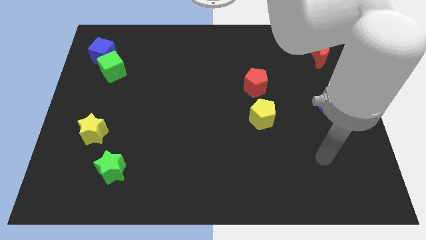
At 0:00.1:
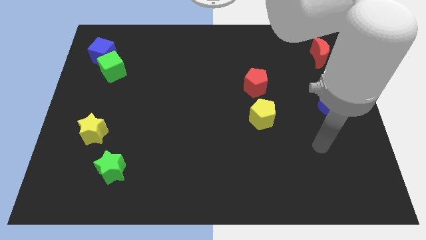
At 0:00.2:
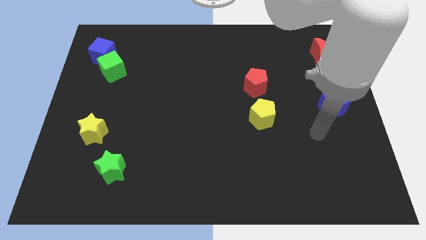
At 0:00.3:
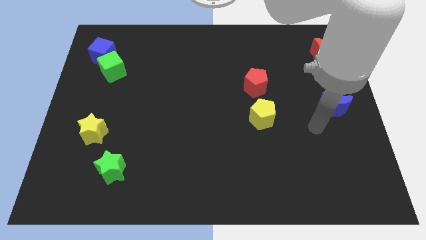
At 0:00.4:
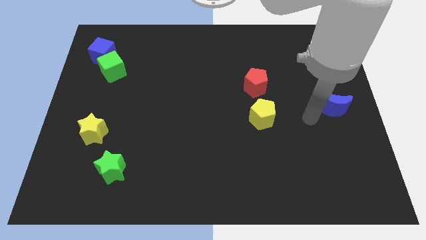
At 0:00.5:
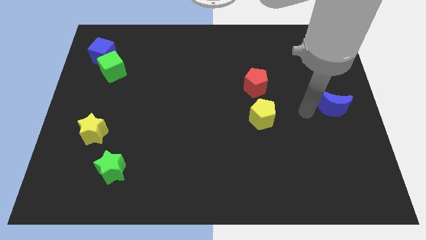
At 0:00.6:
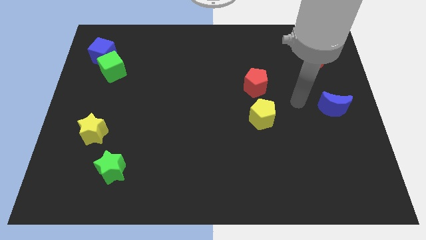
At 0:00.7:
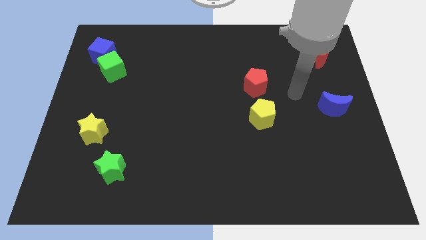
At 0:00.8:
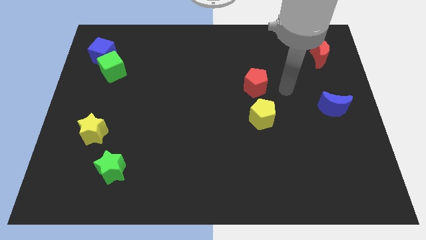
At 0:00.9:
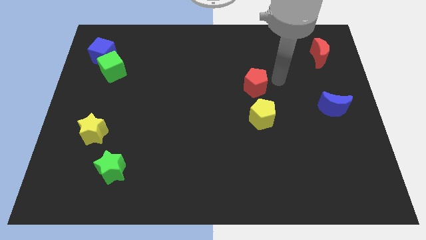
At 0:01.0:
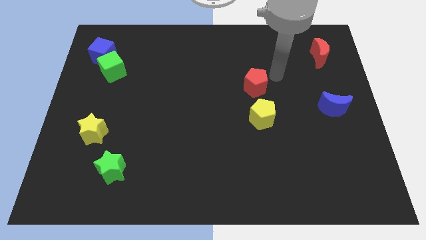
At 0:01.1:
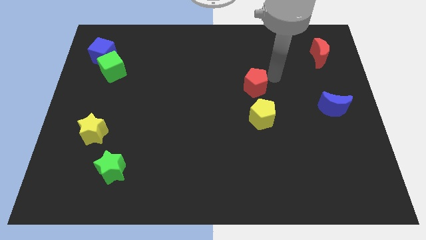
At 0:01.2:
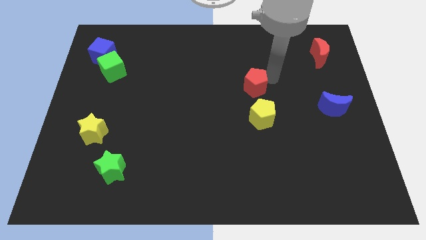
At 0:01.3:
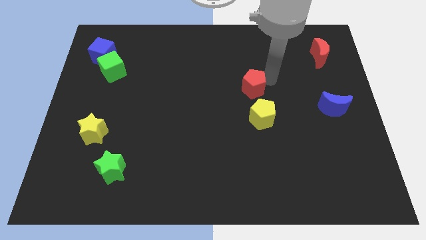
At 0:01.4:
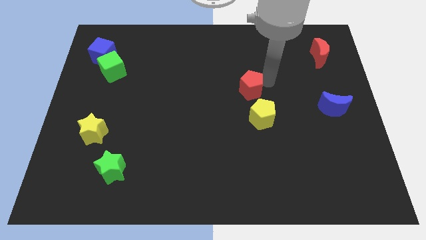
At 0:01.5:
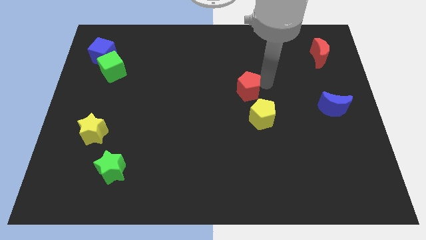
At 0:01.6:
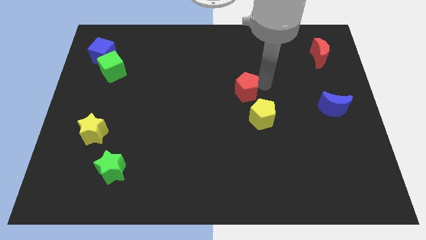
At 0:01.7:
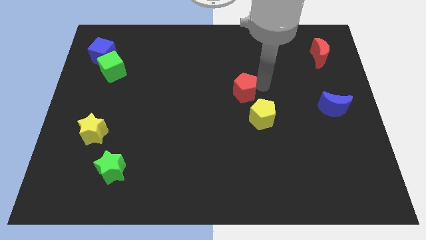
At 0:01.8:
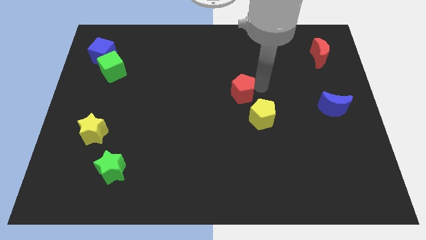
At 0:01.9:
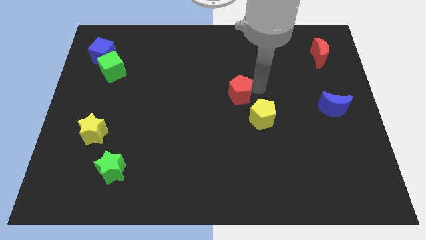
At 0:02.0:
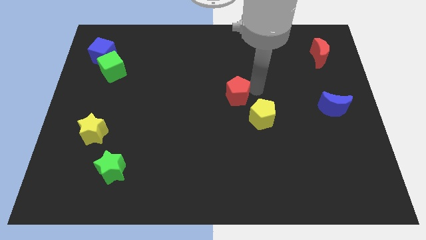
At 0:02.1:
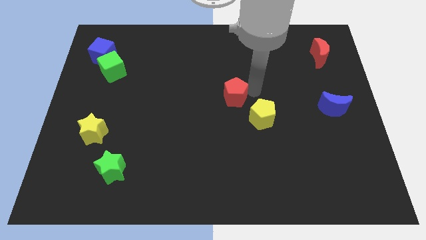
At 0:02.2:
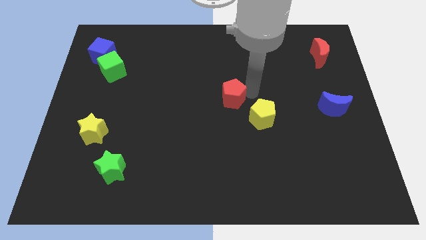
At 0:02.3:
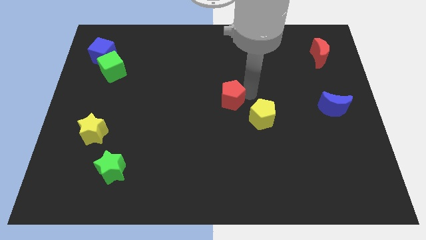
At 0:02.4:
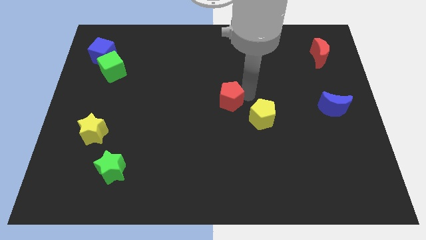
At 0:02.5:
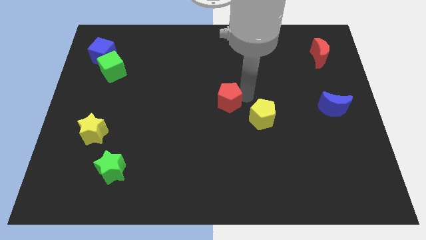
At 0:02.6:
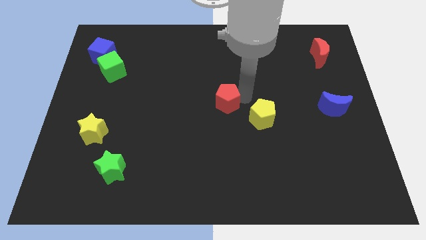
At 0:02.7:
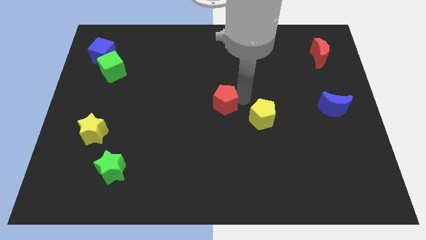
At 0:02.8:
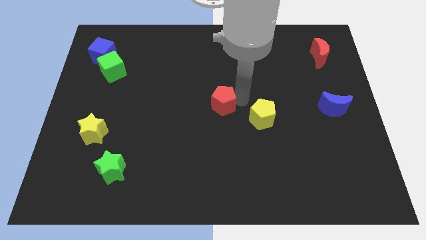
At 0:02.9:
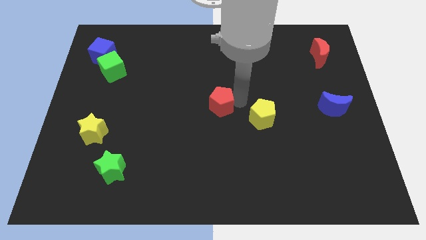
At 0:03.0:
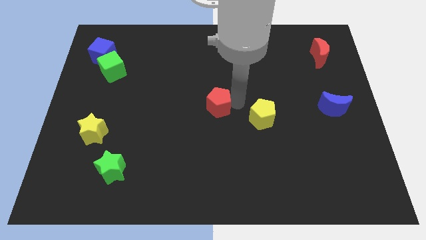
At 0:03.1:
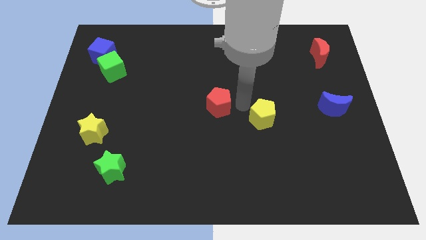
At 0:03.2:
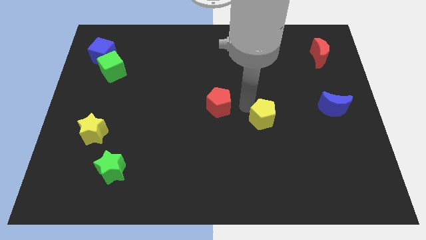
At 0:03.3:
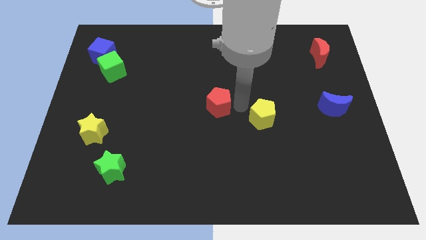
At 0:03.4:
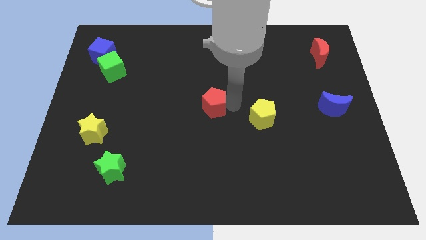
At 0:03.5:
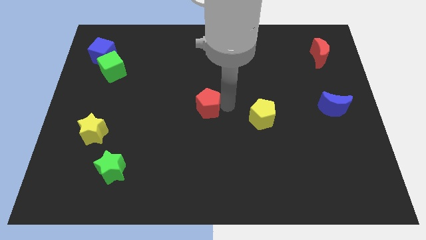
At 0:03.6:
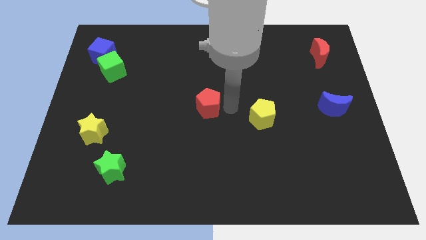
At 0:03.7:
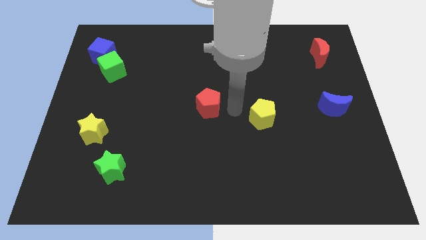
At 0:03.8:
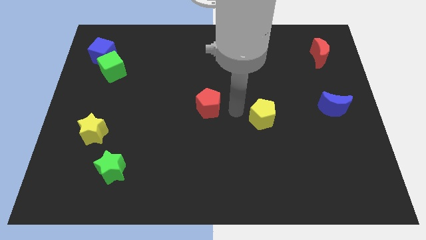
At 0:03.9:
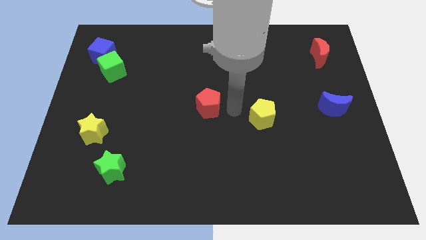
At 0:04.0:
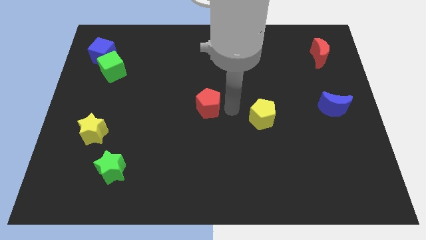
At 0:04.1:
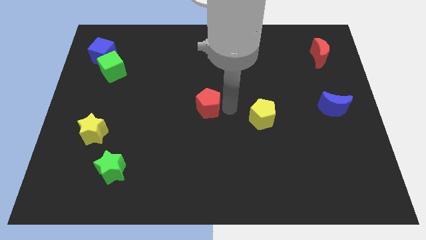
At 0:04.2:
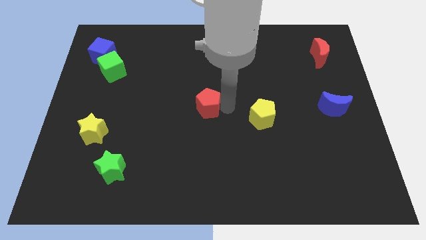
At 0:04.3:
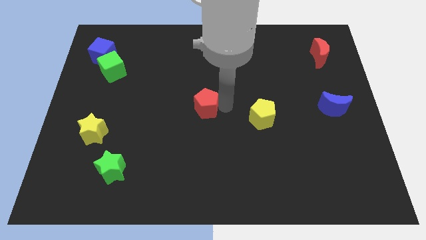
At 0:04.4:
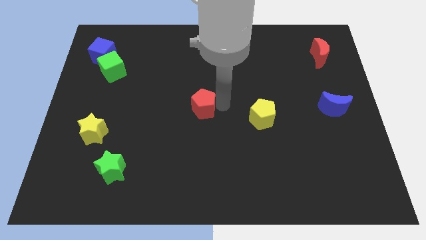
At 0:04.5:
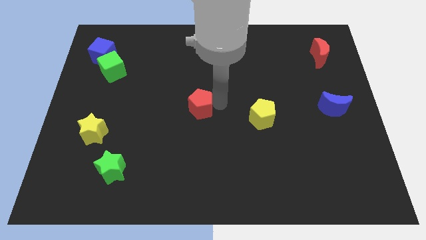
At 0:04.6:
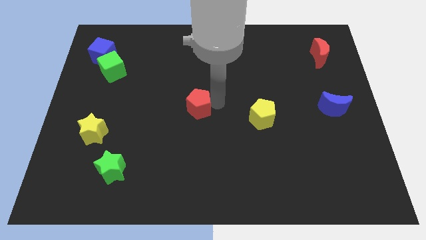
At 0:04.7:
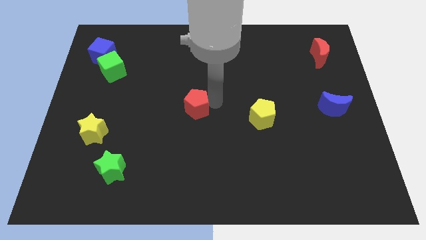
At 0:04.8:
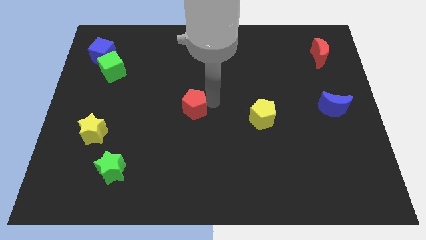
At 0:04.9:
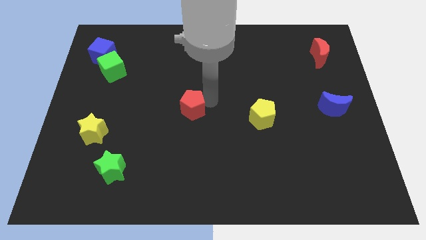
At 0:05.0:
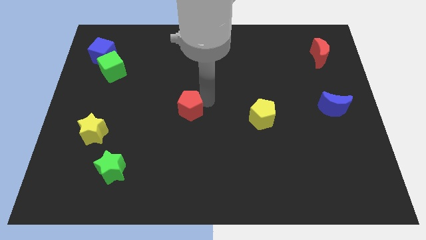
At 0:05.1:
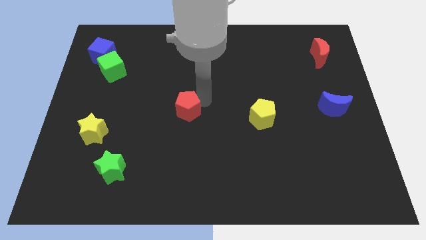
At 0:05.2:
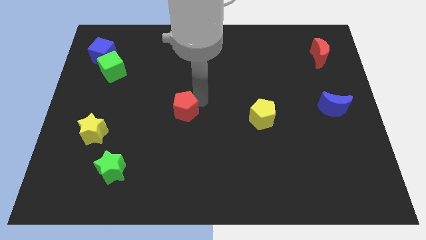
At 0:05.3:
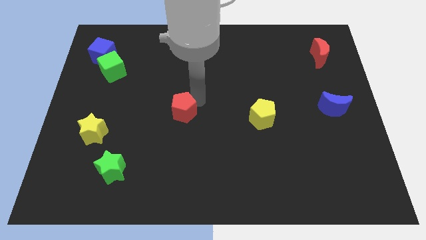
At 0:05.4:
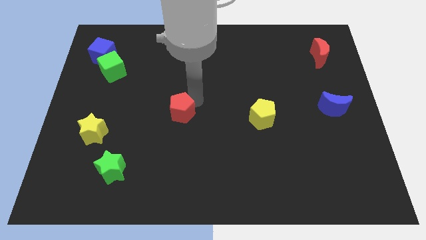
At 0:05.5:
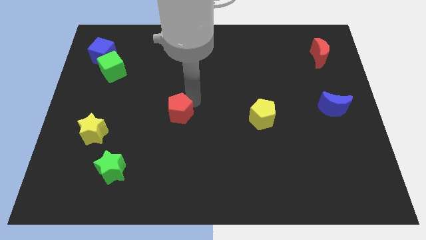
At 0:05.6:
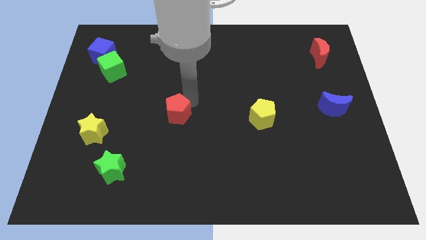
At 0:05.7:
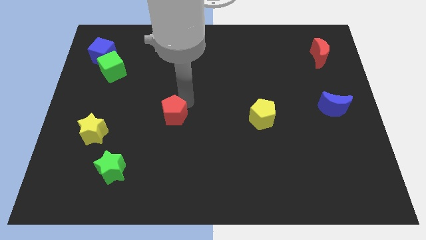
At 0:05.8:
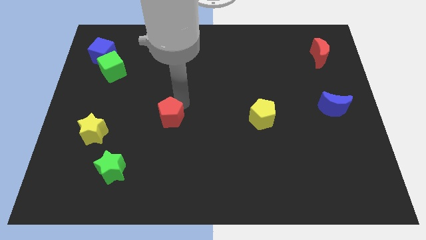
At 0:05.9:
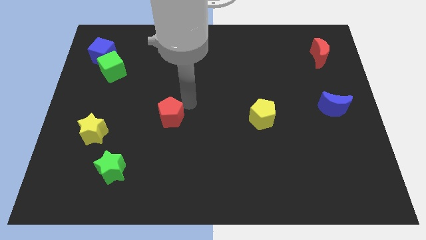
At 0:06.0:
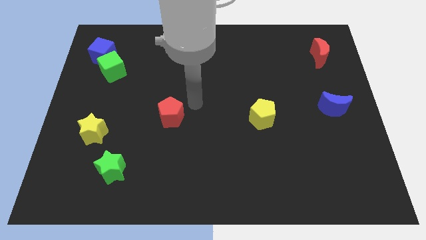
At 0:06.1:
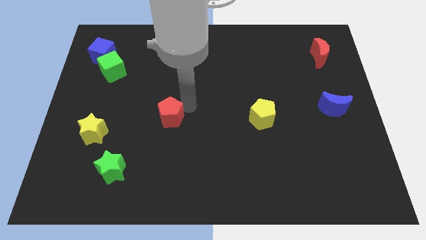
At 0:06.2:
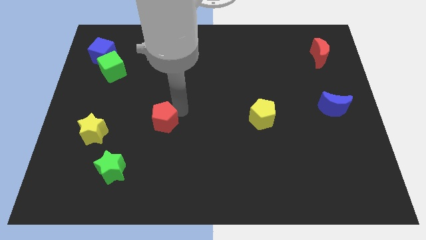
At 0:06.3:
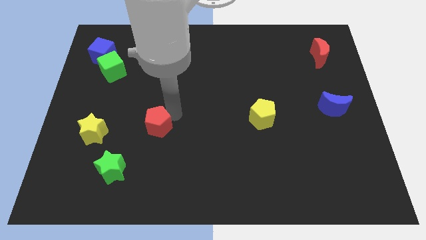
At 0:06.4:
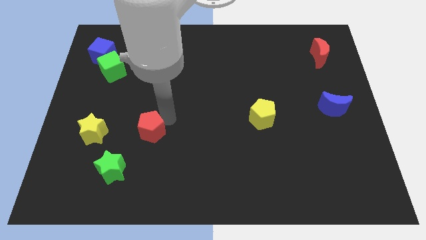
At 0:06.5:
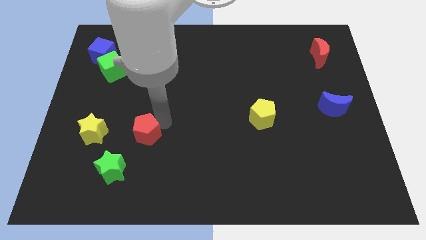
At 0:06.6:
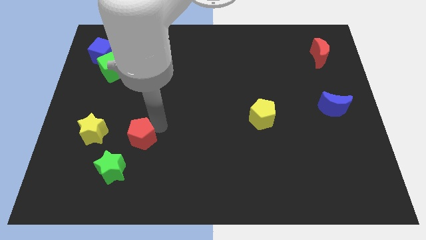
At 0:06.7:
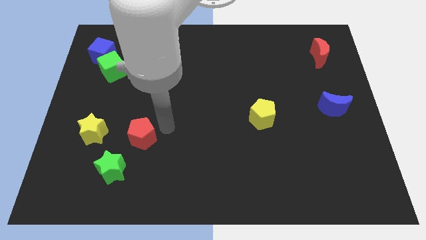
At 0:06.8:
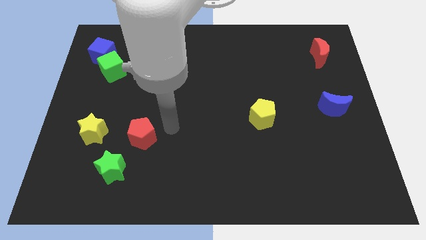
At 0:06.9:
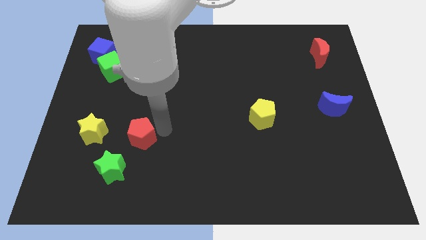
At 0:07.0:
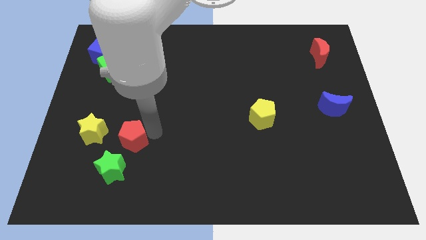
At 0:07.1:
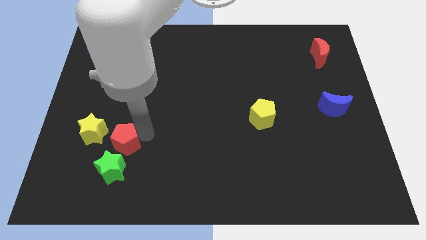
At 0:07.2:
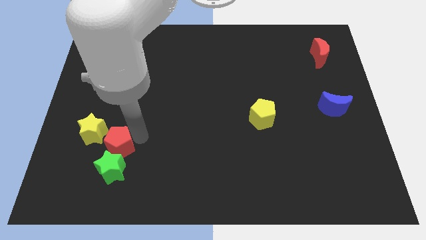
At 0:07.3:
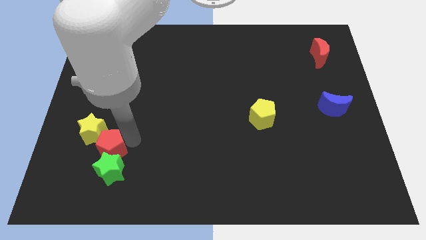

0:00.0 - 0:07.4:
slide the red pentagon to the top left side of the green star

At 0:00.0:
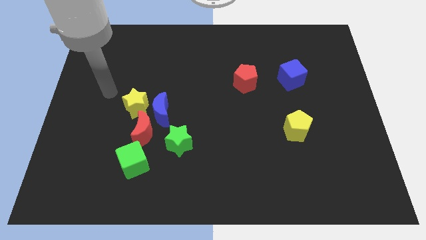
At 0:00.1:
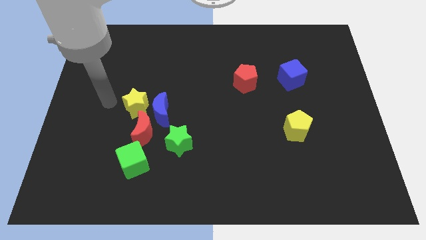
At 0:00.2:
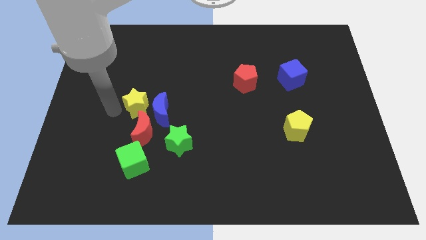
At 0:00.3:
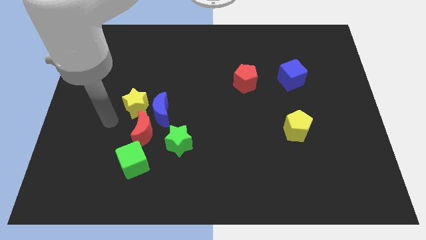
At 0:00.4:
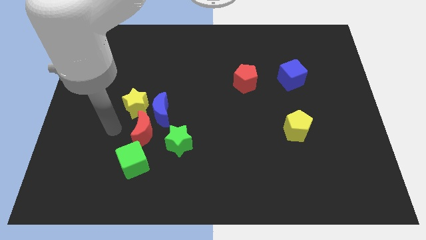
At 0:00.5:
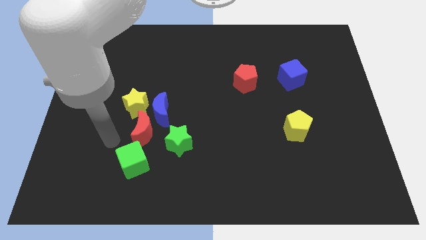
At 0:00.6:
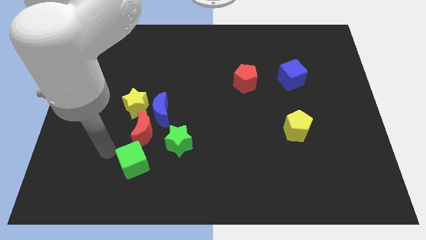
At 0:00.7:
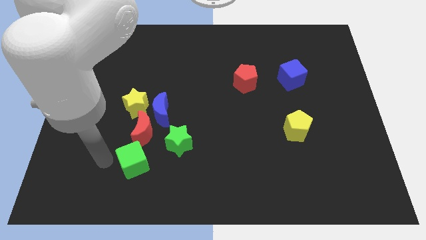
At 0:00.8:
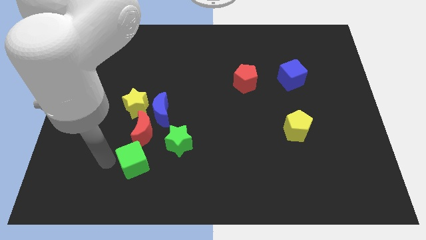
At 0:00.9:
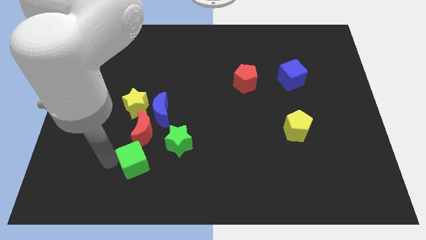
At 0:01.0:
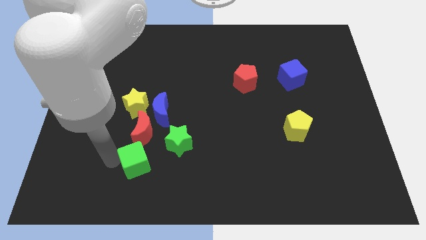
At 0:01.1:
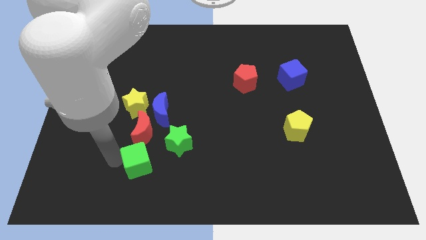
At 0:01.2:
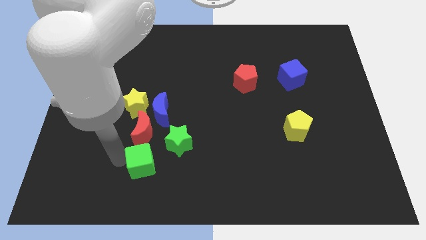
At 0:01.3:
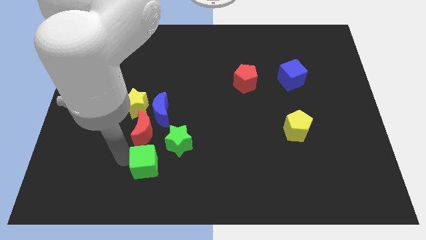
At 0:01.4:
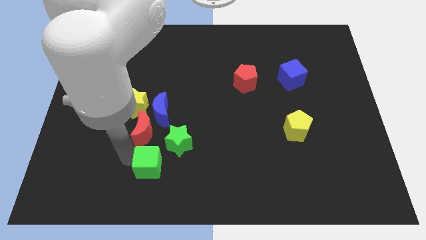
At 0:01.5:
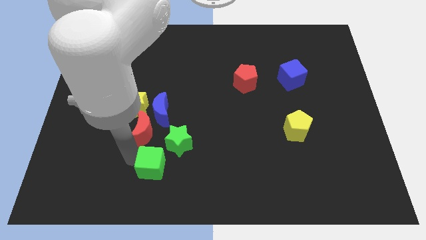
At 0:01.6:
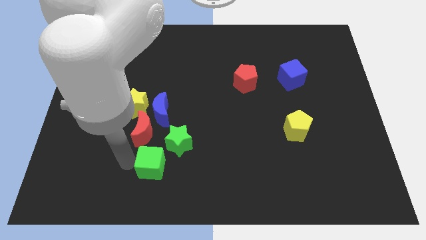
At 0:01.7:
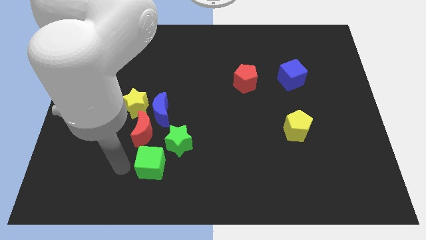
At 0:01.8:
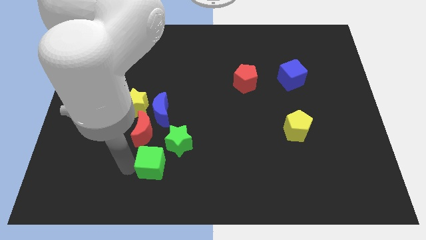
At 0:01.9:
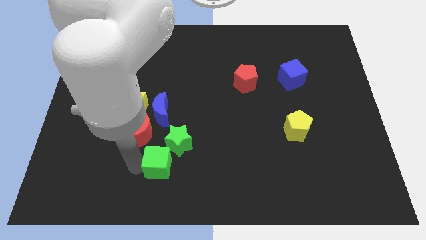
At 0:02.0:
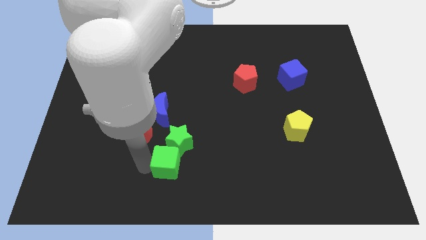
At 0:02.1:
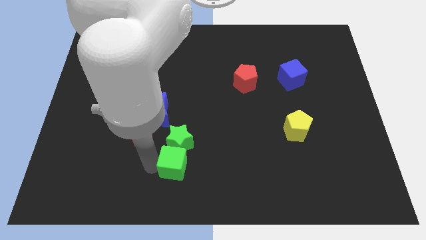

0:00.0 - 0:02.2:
put the green cube diagonally down and to the right of the green star
